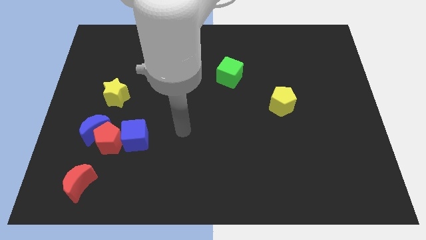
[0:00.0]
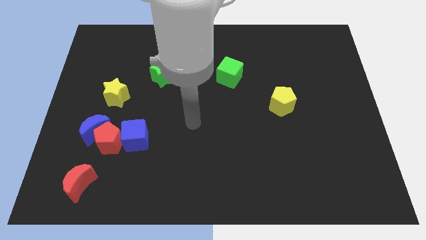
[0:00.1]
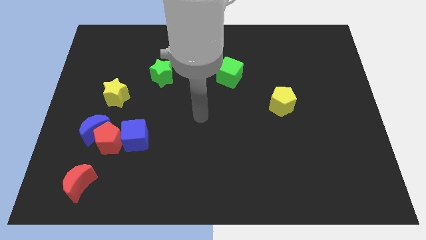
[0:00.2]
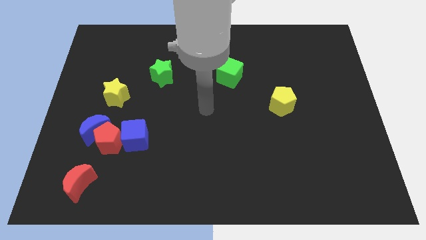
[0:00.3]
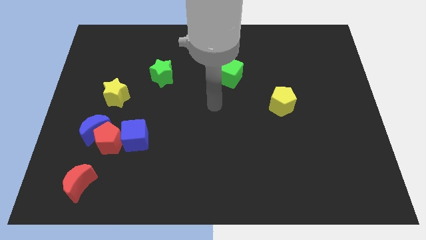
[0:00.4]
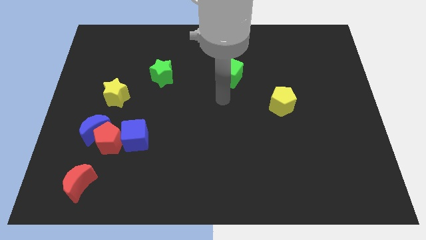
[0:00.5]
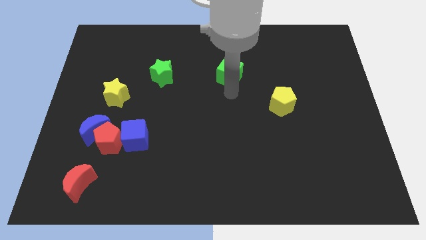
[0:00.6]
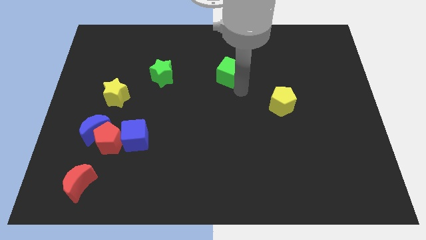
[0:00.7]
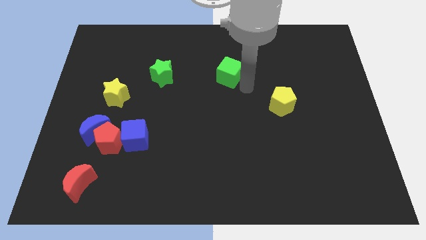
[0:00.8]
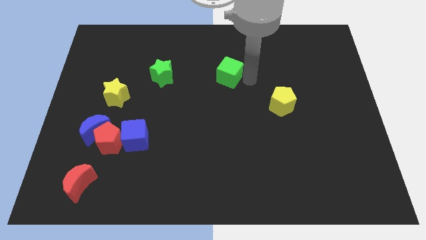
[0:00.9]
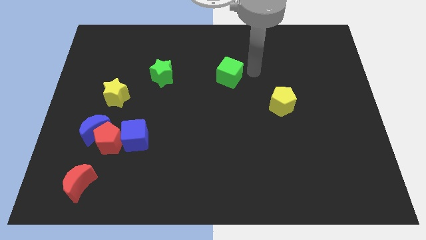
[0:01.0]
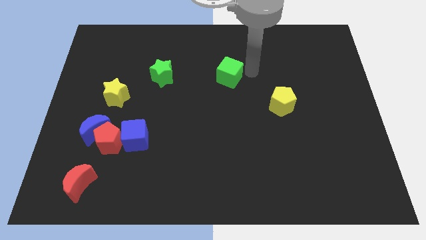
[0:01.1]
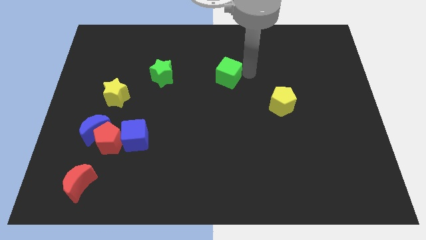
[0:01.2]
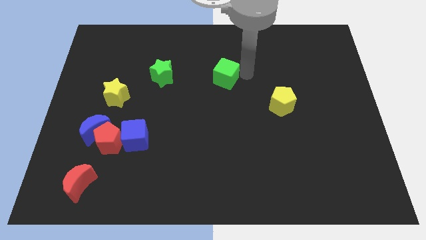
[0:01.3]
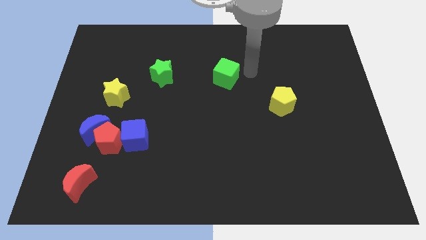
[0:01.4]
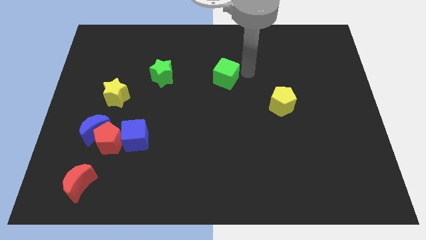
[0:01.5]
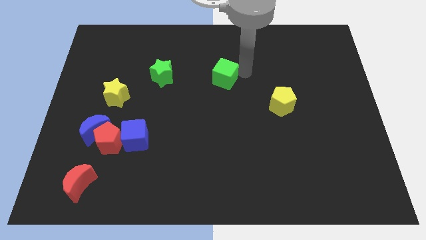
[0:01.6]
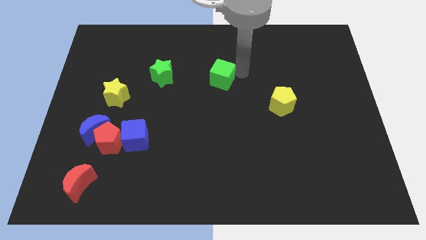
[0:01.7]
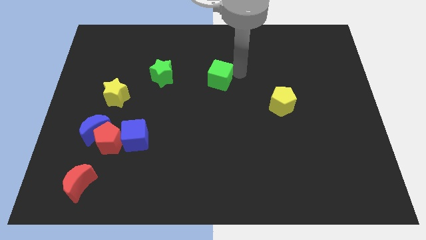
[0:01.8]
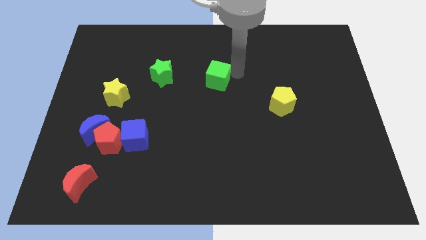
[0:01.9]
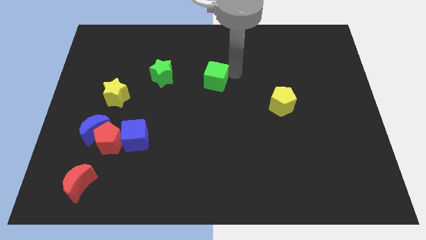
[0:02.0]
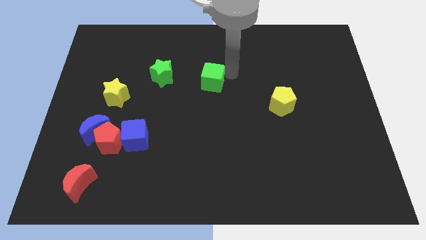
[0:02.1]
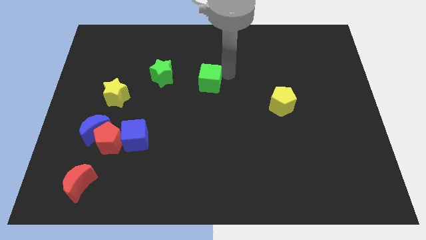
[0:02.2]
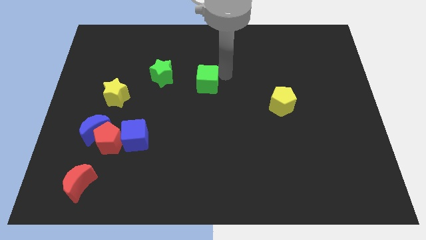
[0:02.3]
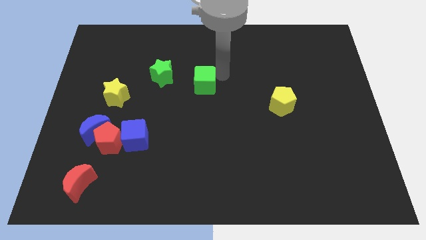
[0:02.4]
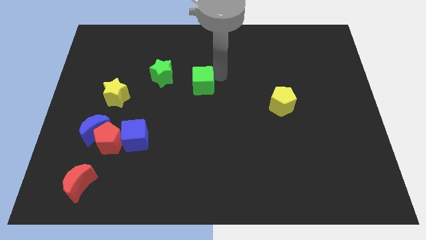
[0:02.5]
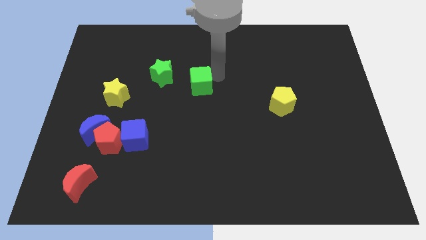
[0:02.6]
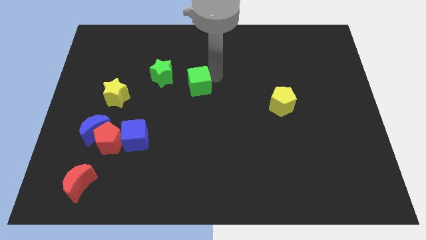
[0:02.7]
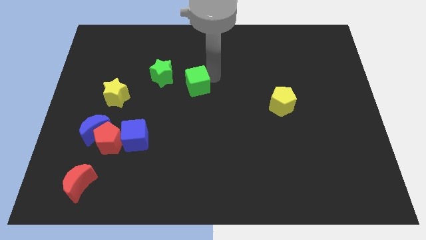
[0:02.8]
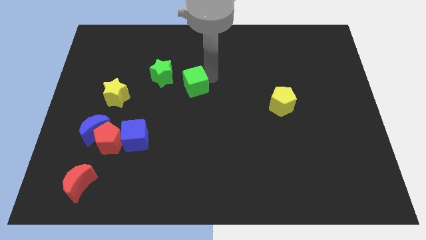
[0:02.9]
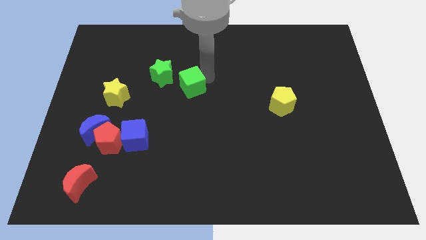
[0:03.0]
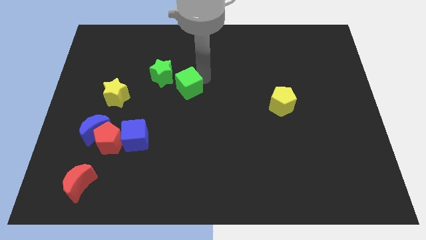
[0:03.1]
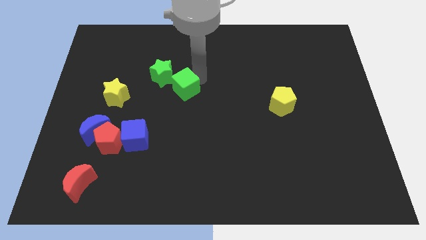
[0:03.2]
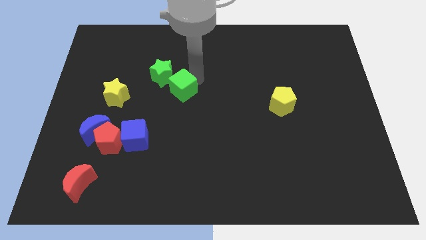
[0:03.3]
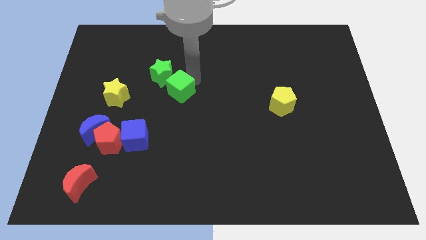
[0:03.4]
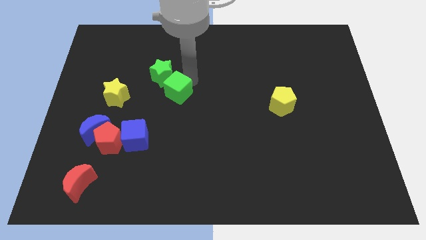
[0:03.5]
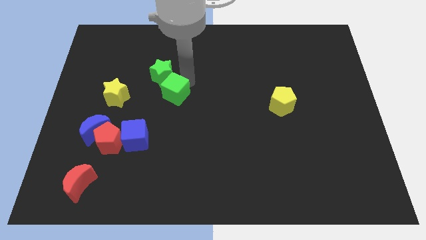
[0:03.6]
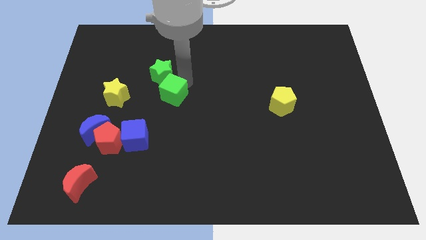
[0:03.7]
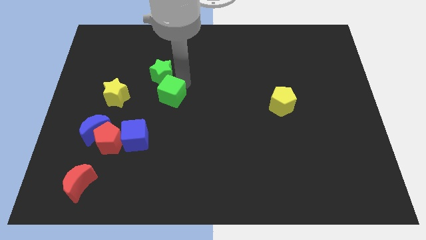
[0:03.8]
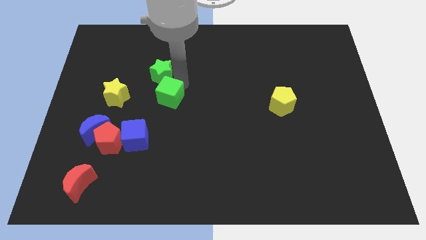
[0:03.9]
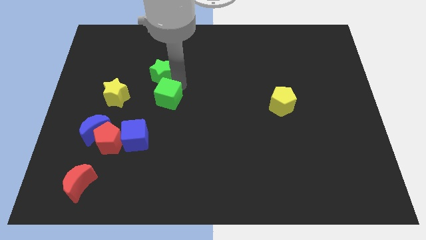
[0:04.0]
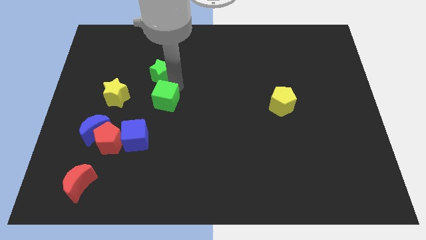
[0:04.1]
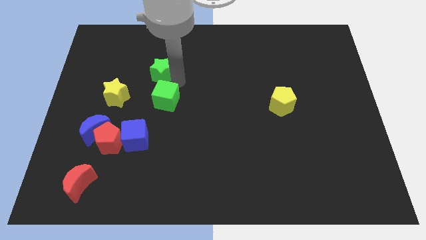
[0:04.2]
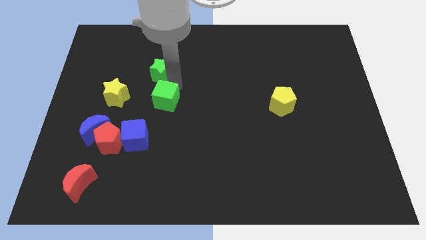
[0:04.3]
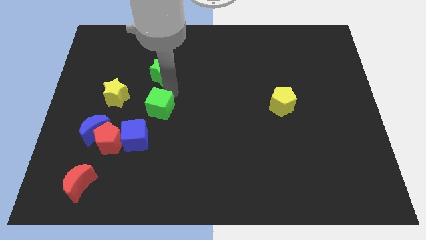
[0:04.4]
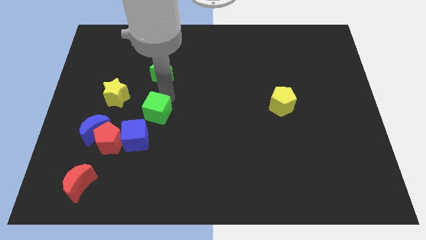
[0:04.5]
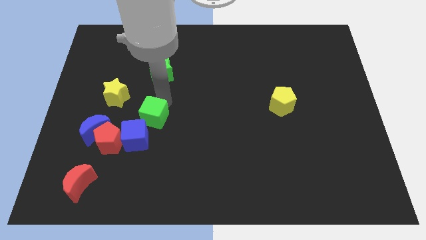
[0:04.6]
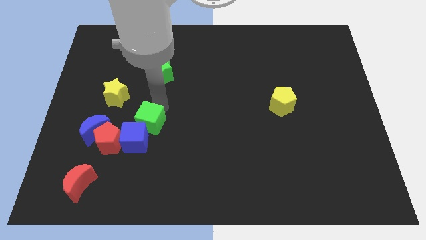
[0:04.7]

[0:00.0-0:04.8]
move the green cube to the blue cube

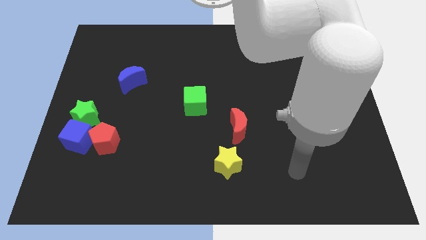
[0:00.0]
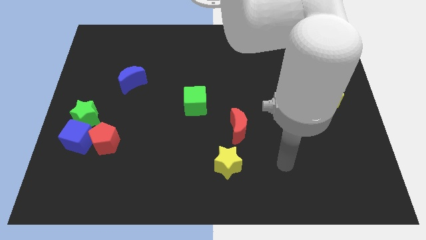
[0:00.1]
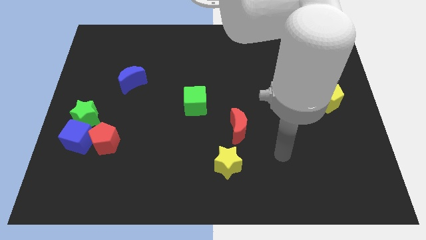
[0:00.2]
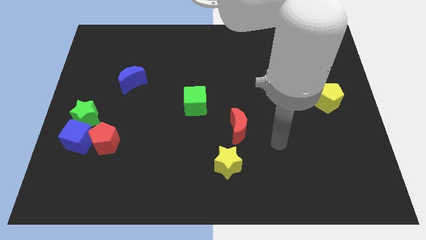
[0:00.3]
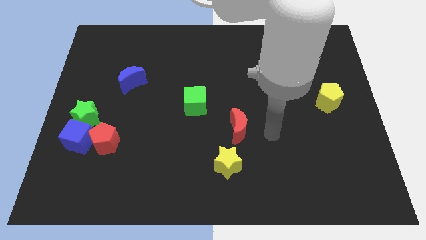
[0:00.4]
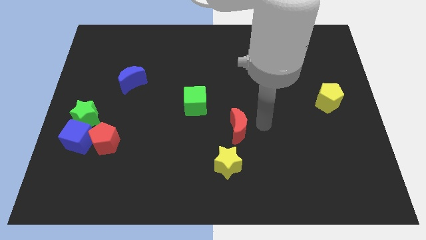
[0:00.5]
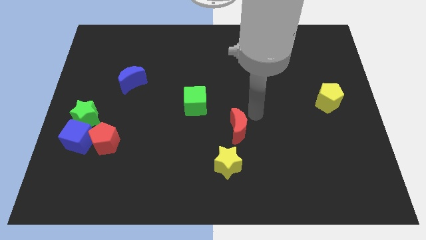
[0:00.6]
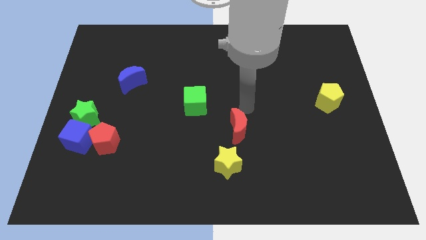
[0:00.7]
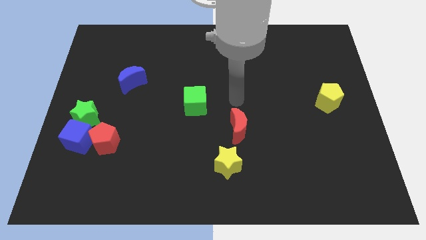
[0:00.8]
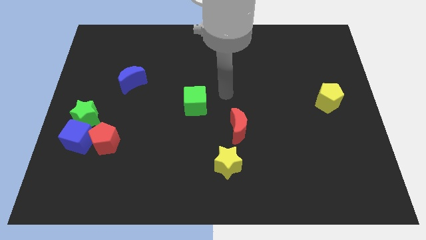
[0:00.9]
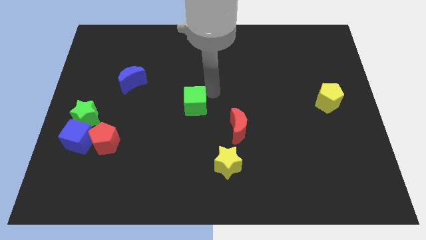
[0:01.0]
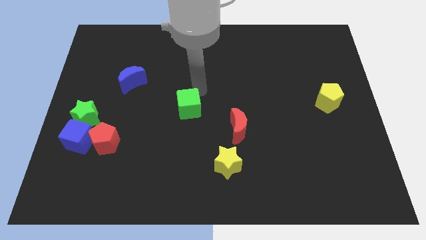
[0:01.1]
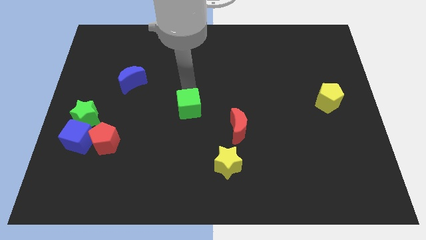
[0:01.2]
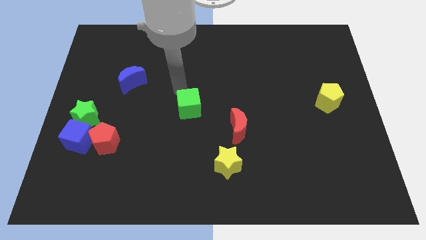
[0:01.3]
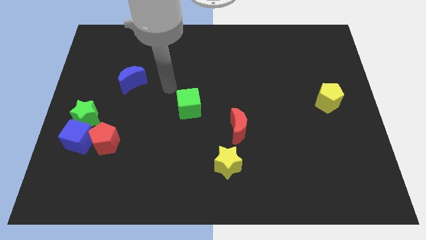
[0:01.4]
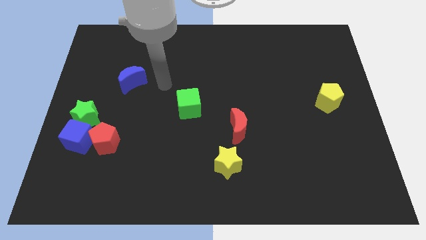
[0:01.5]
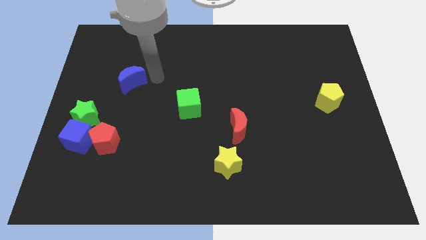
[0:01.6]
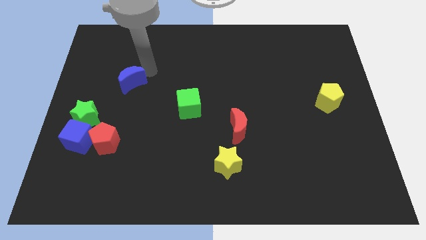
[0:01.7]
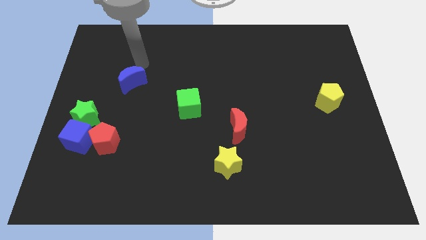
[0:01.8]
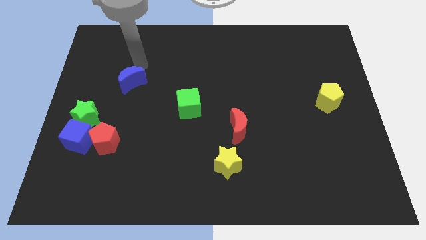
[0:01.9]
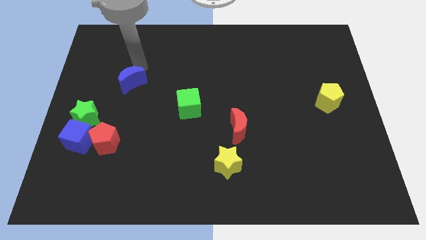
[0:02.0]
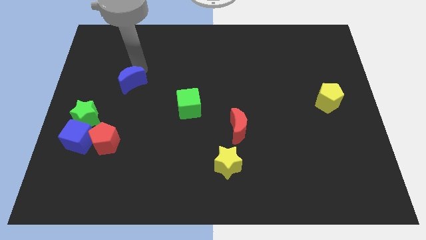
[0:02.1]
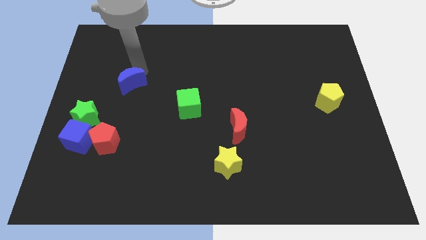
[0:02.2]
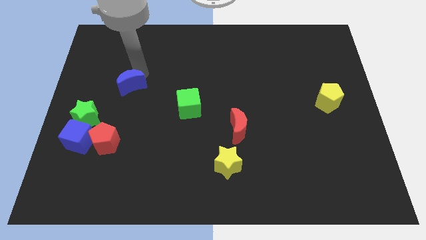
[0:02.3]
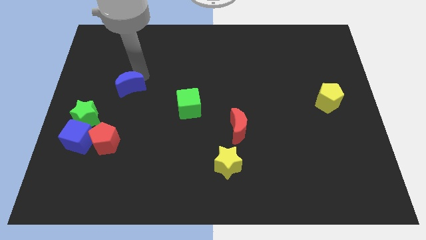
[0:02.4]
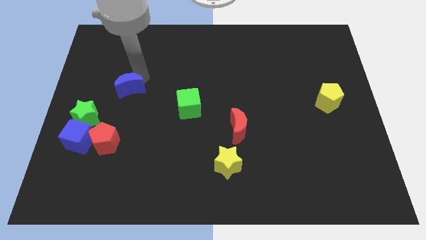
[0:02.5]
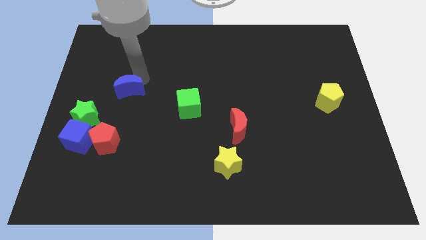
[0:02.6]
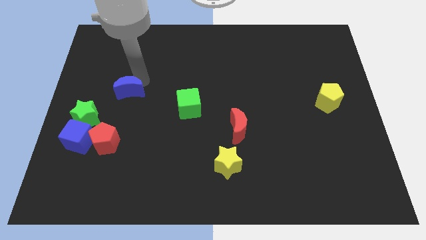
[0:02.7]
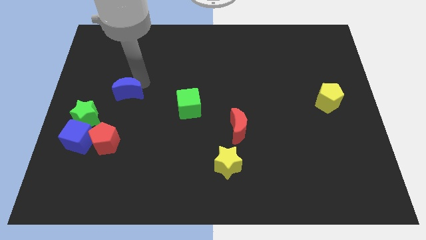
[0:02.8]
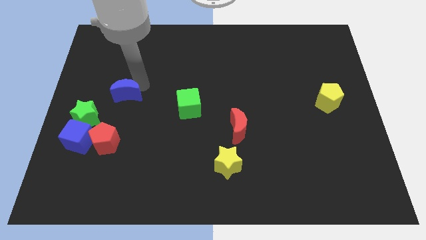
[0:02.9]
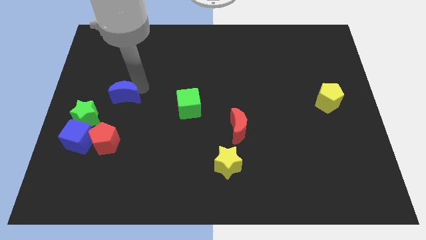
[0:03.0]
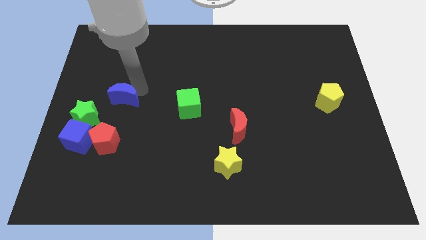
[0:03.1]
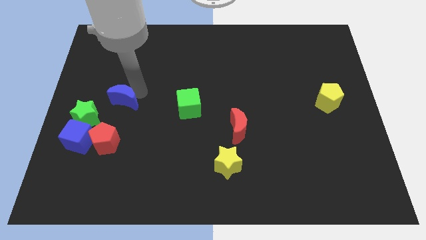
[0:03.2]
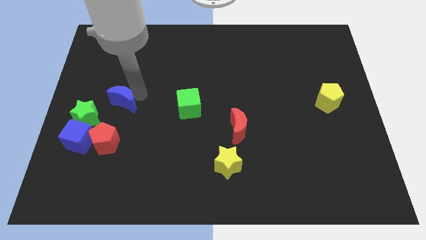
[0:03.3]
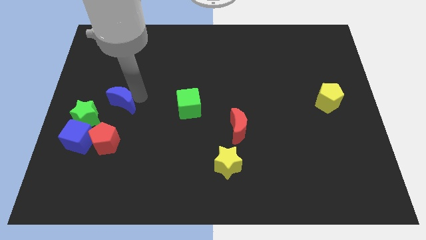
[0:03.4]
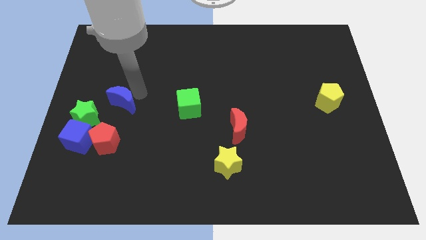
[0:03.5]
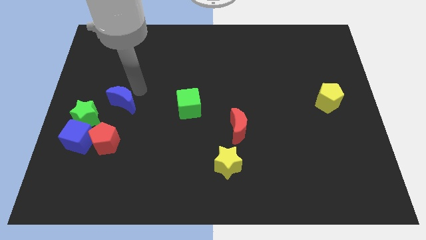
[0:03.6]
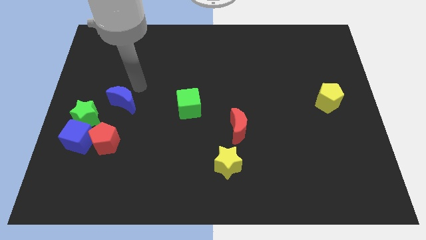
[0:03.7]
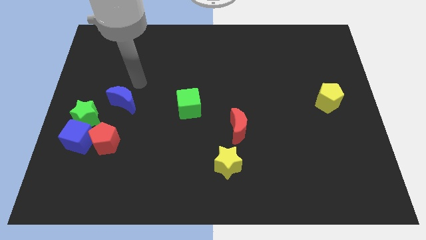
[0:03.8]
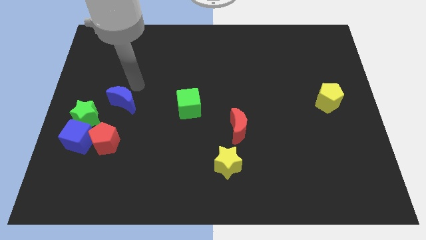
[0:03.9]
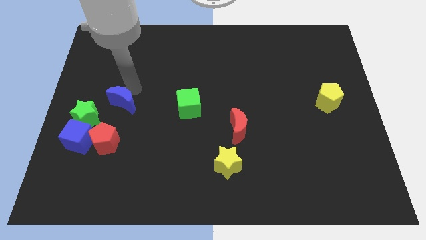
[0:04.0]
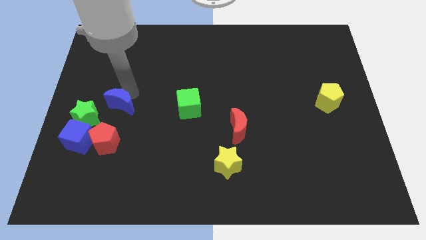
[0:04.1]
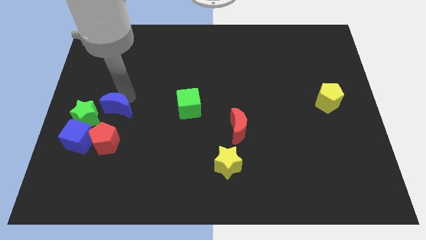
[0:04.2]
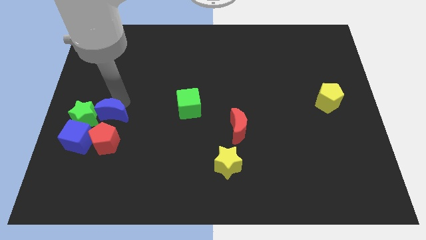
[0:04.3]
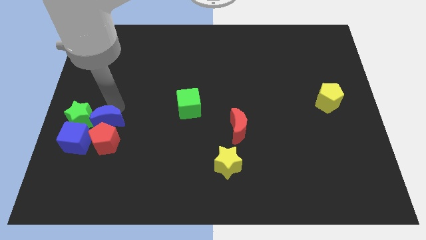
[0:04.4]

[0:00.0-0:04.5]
push the blue moon close to the red pentagon
